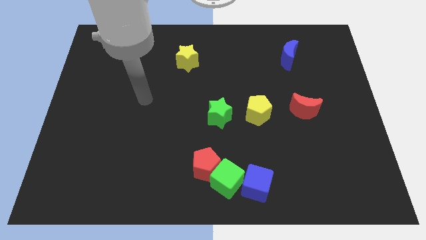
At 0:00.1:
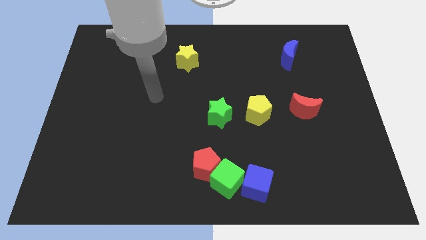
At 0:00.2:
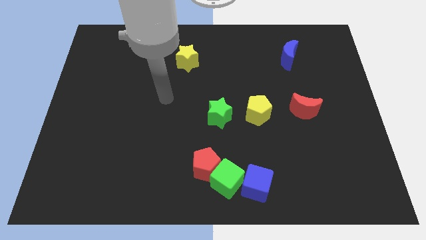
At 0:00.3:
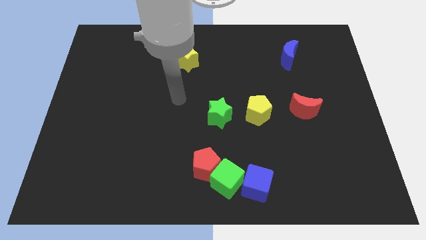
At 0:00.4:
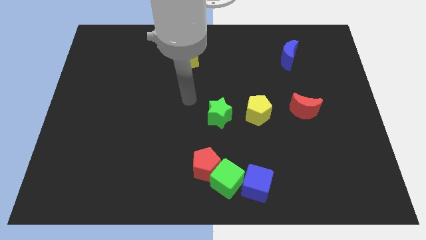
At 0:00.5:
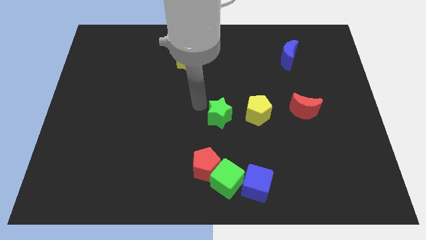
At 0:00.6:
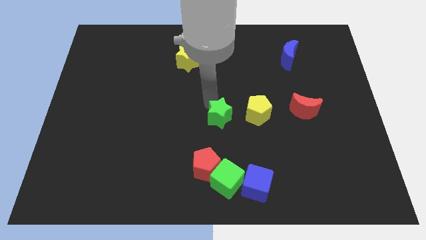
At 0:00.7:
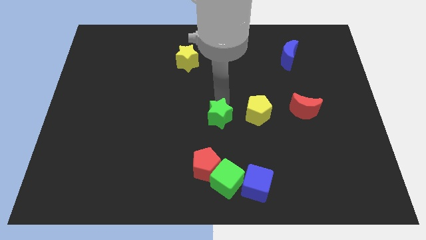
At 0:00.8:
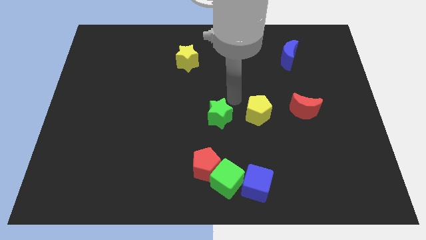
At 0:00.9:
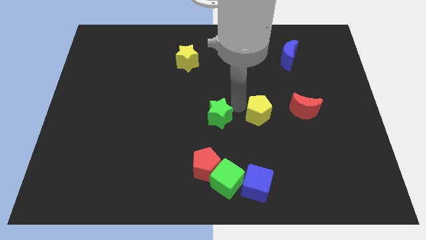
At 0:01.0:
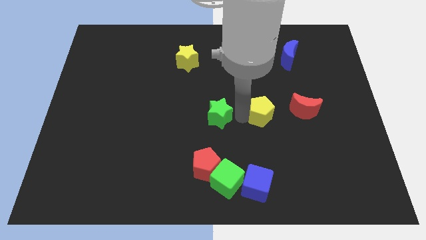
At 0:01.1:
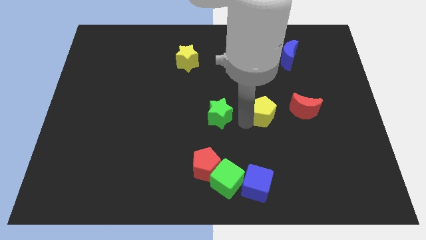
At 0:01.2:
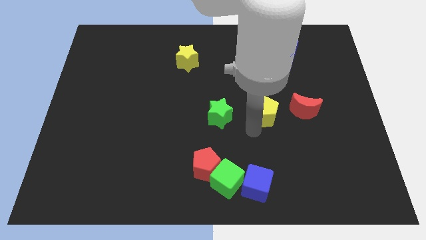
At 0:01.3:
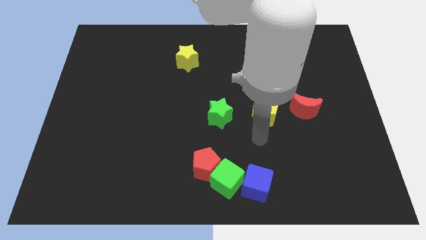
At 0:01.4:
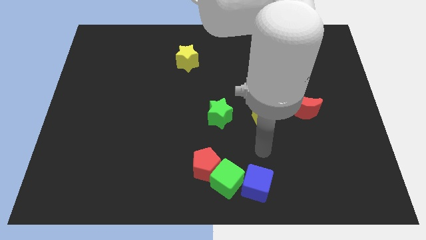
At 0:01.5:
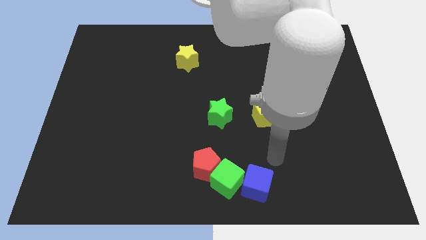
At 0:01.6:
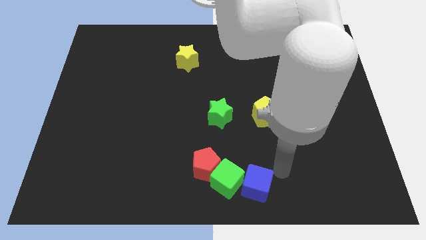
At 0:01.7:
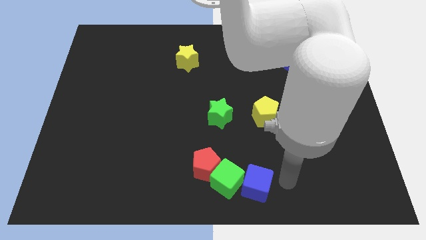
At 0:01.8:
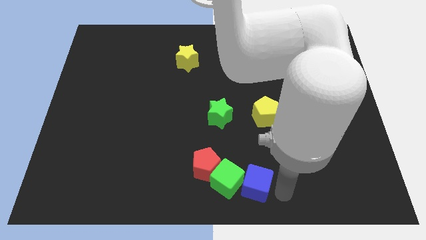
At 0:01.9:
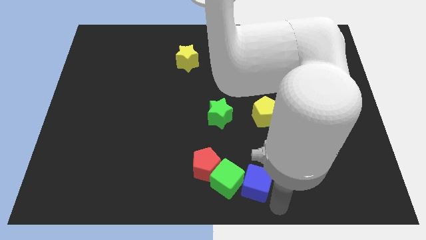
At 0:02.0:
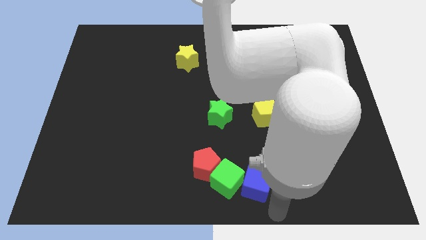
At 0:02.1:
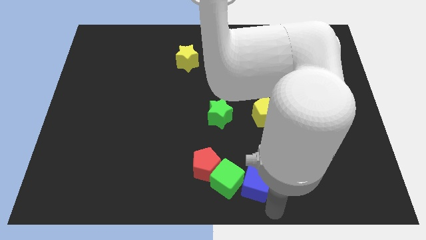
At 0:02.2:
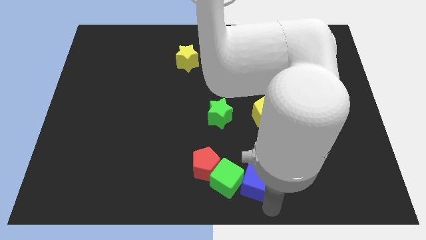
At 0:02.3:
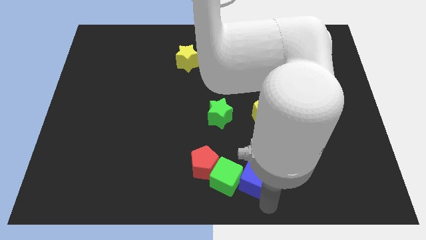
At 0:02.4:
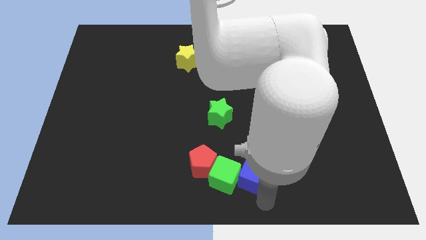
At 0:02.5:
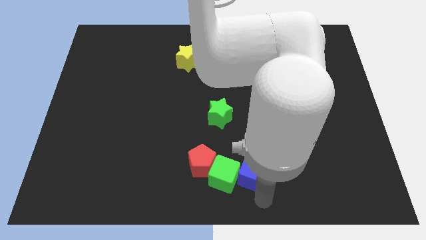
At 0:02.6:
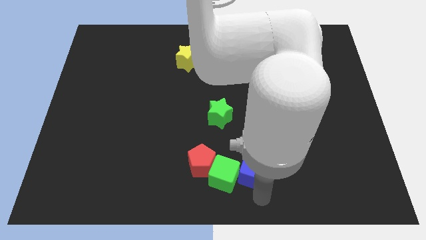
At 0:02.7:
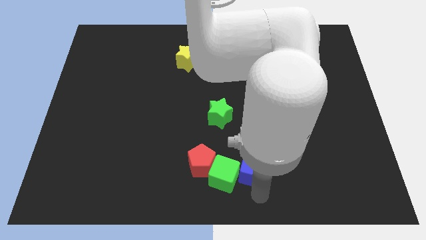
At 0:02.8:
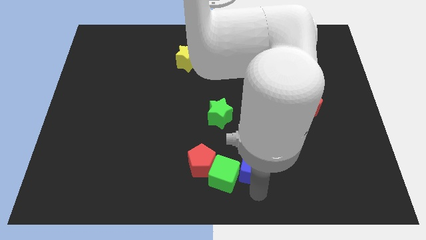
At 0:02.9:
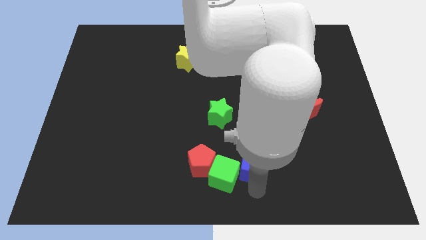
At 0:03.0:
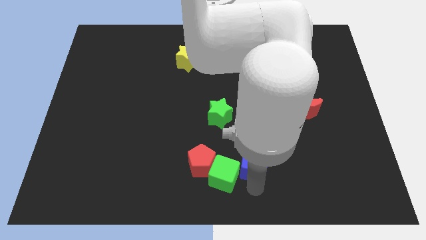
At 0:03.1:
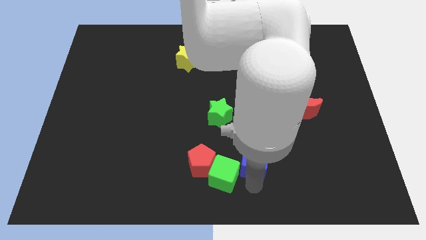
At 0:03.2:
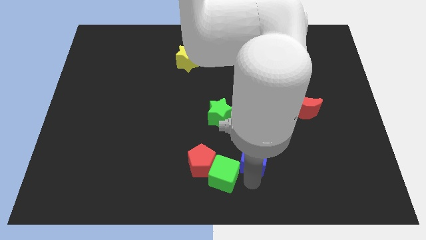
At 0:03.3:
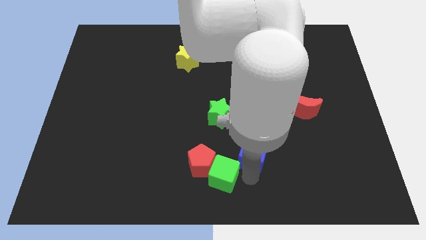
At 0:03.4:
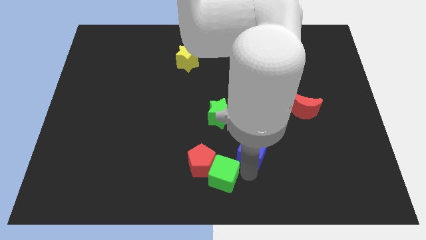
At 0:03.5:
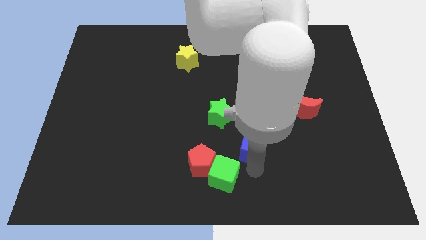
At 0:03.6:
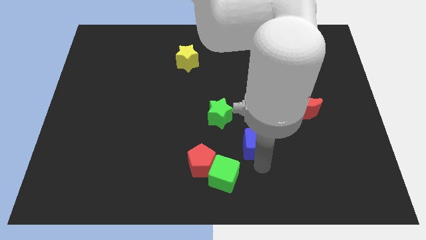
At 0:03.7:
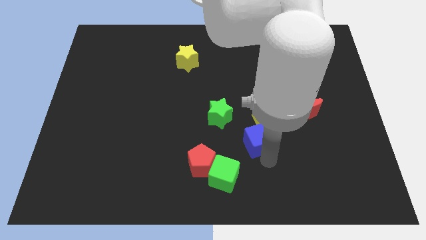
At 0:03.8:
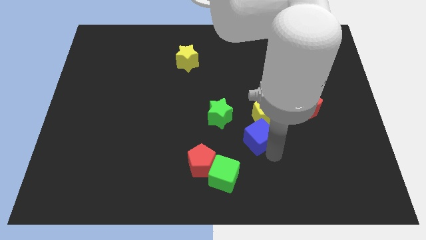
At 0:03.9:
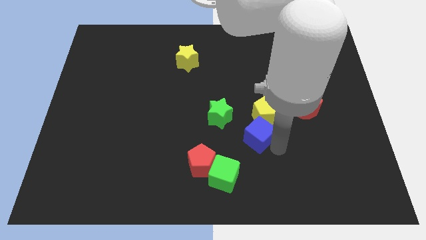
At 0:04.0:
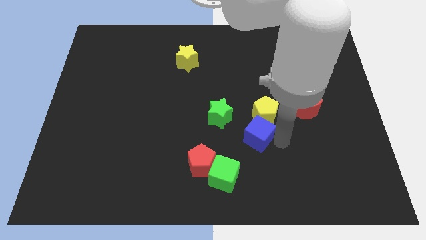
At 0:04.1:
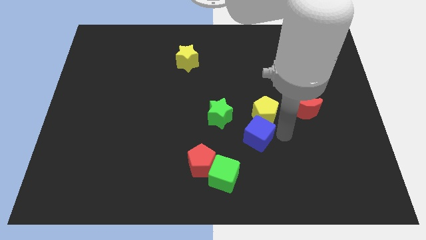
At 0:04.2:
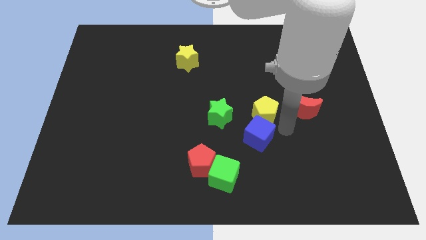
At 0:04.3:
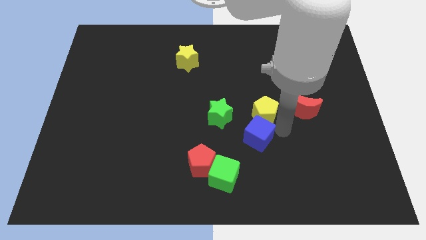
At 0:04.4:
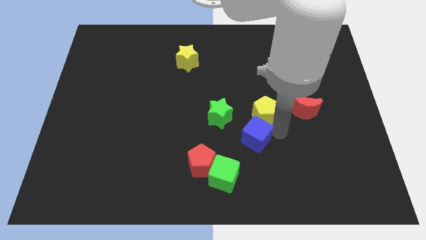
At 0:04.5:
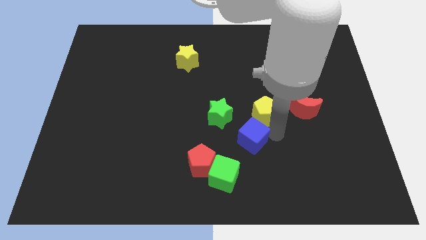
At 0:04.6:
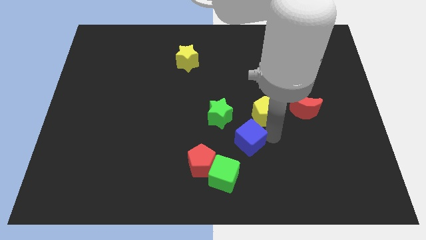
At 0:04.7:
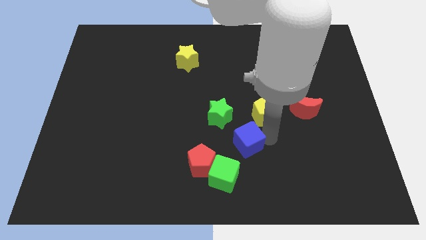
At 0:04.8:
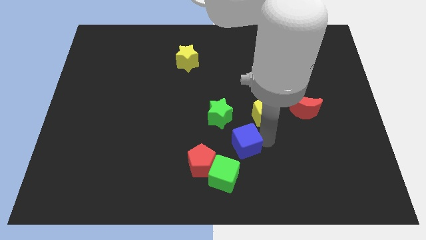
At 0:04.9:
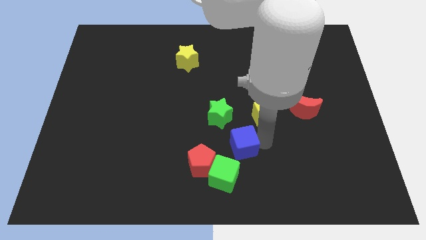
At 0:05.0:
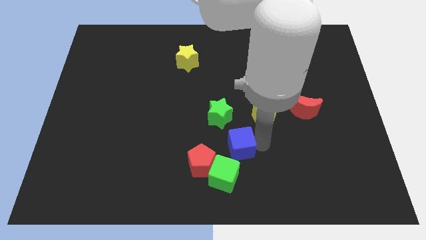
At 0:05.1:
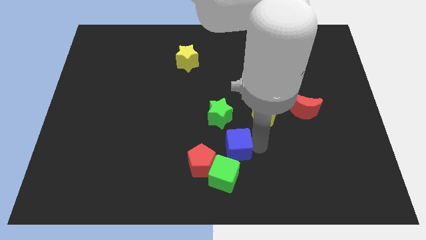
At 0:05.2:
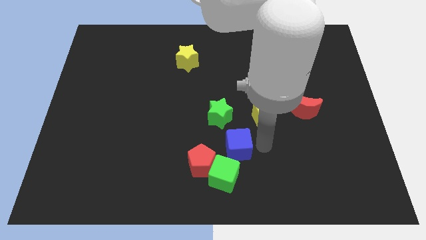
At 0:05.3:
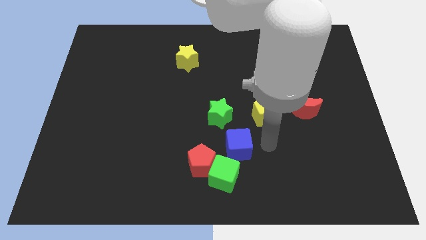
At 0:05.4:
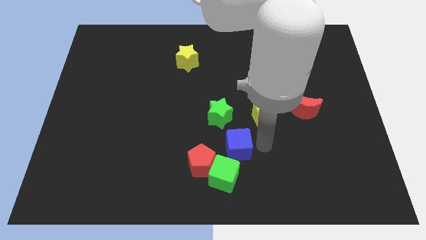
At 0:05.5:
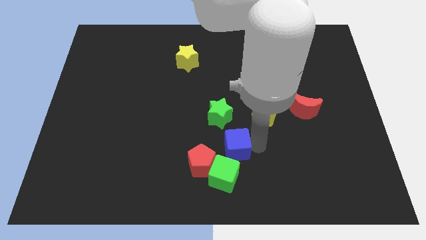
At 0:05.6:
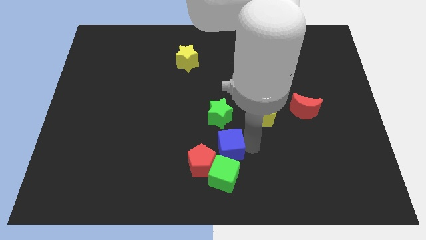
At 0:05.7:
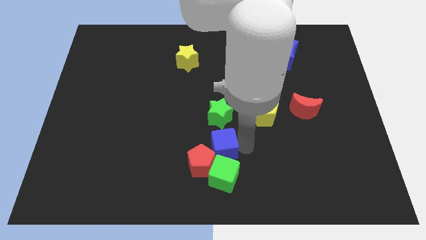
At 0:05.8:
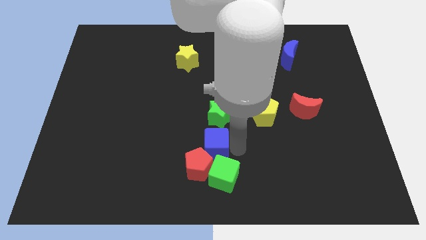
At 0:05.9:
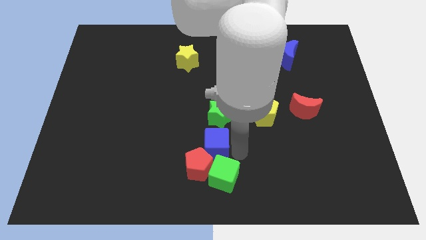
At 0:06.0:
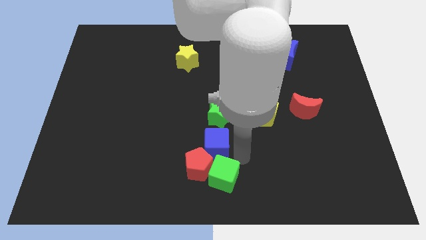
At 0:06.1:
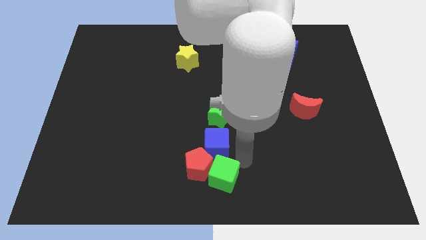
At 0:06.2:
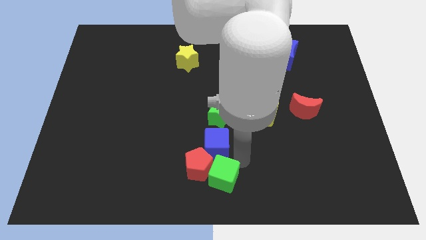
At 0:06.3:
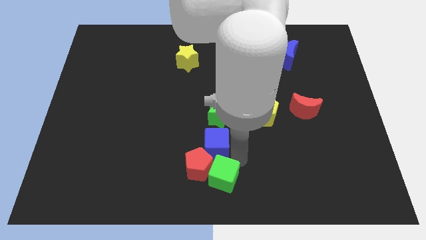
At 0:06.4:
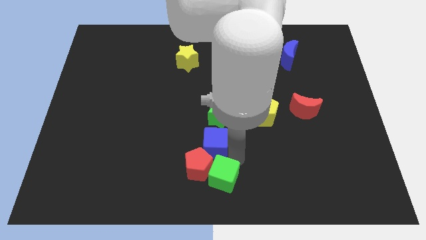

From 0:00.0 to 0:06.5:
put the blue cube to the middle of the board

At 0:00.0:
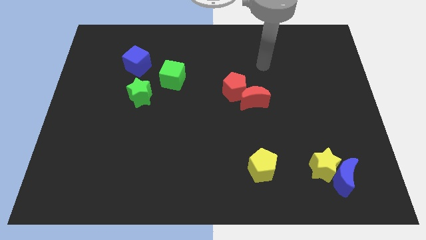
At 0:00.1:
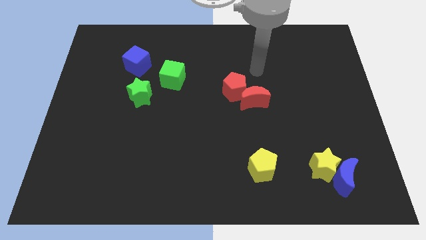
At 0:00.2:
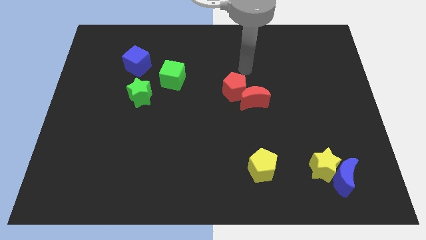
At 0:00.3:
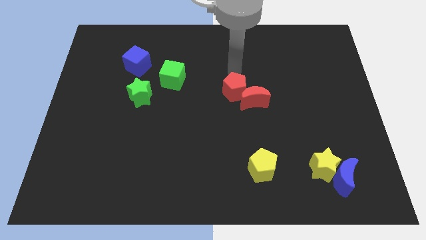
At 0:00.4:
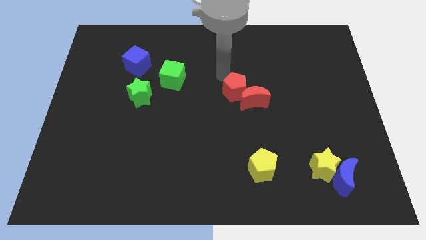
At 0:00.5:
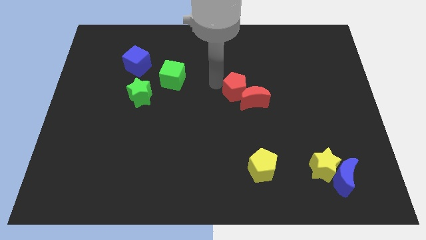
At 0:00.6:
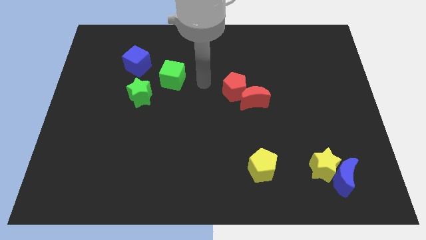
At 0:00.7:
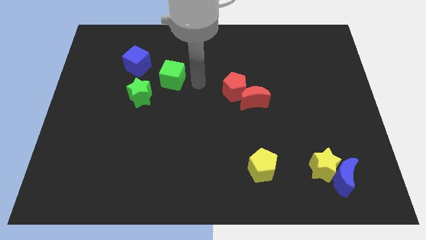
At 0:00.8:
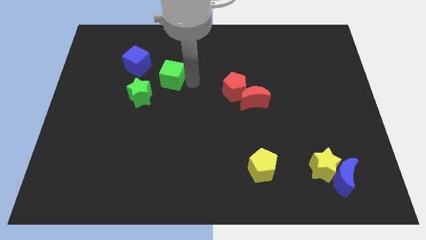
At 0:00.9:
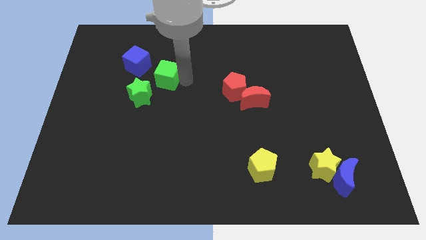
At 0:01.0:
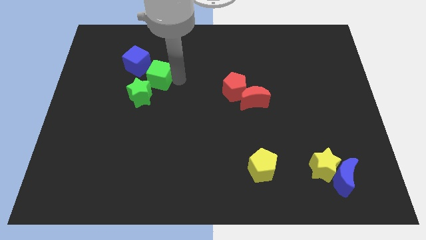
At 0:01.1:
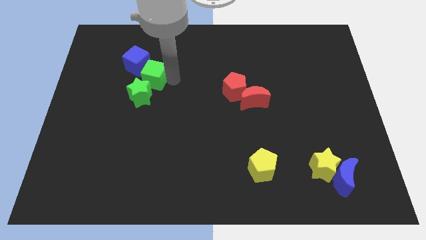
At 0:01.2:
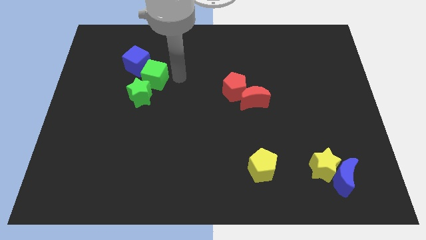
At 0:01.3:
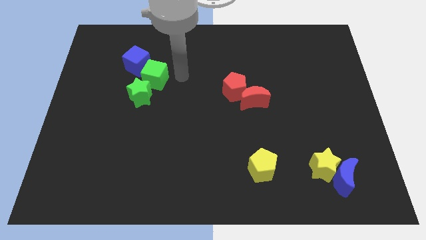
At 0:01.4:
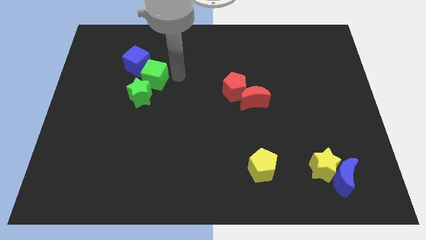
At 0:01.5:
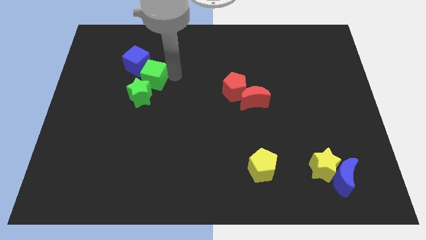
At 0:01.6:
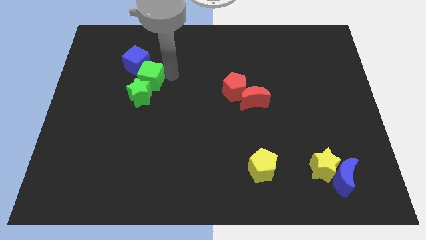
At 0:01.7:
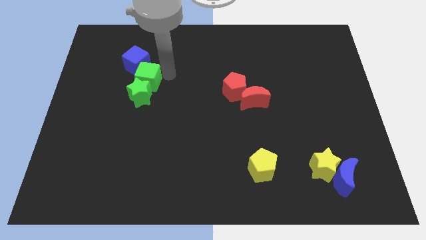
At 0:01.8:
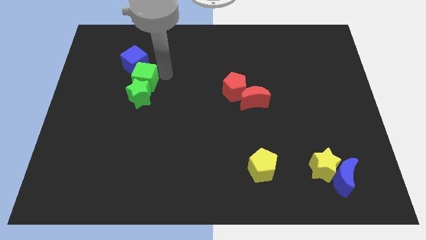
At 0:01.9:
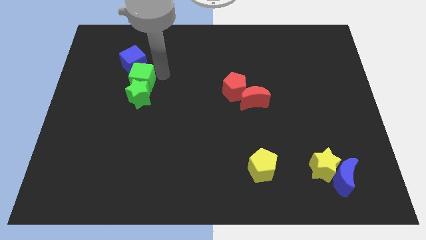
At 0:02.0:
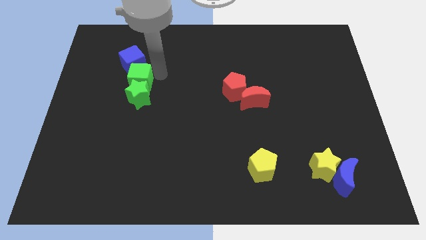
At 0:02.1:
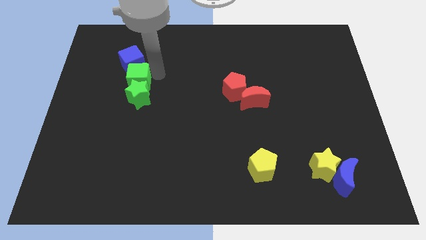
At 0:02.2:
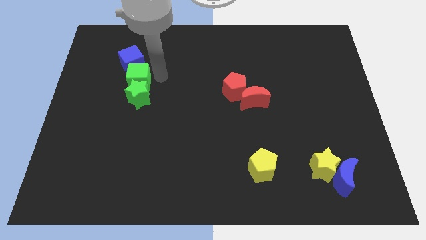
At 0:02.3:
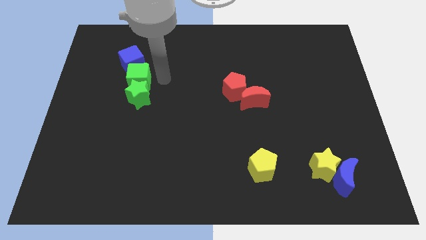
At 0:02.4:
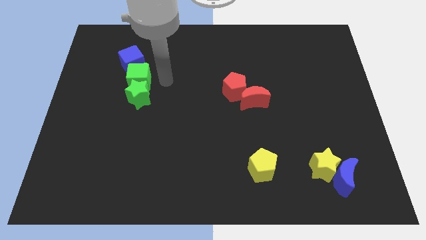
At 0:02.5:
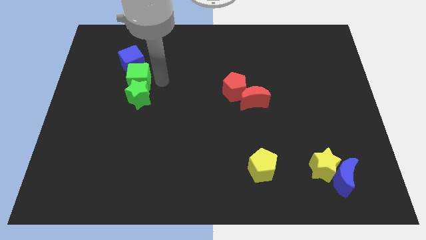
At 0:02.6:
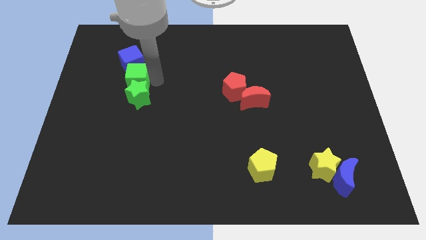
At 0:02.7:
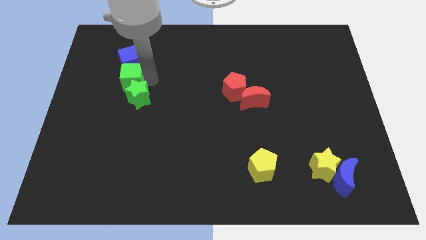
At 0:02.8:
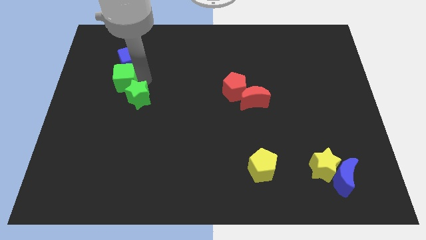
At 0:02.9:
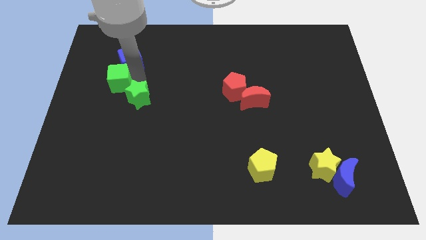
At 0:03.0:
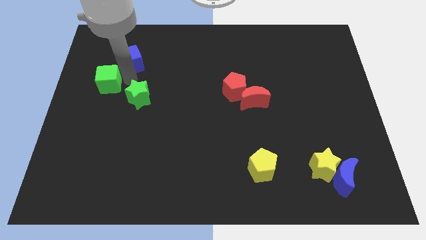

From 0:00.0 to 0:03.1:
put the green cube to the center left
